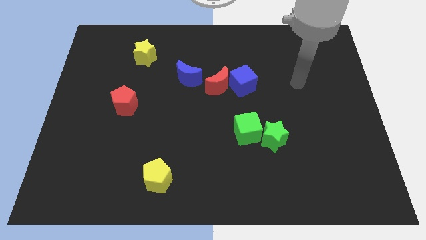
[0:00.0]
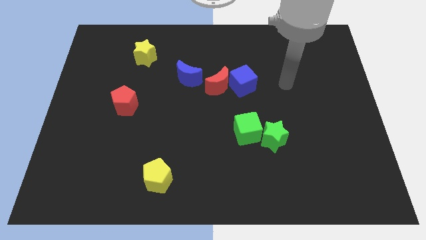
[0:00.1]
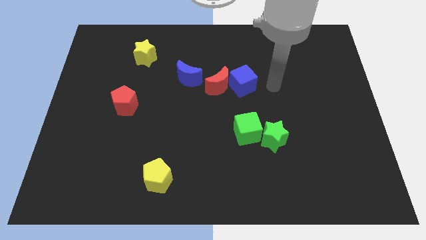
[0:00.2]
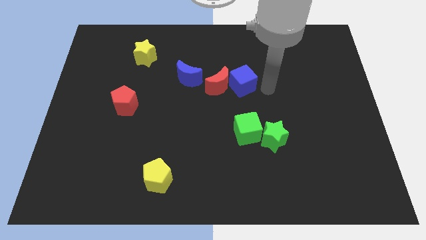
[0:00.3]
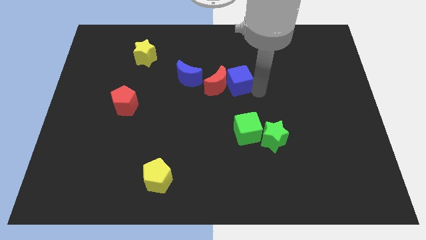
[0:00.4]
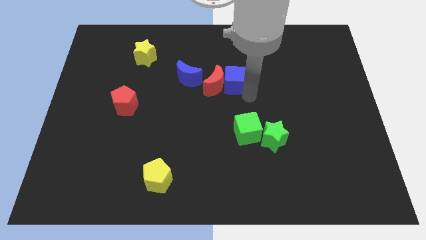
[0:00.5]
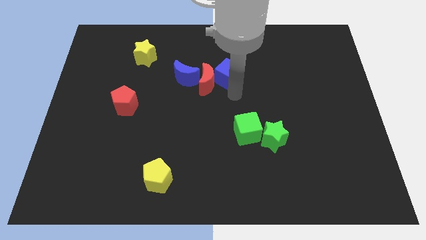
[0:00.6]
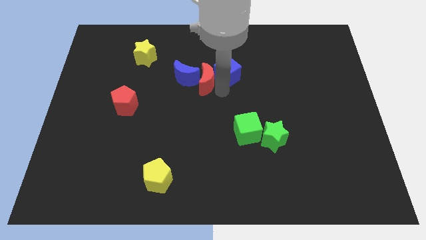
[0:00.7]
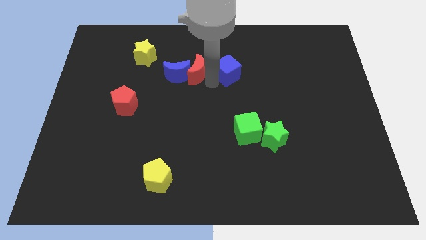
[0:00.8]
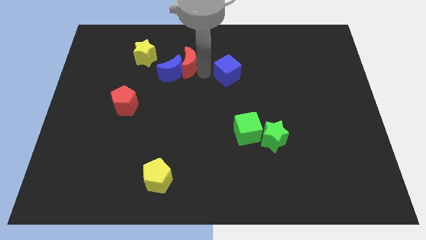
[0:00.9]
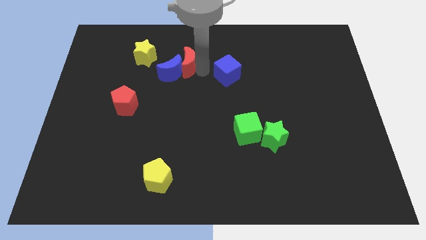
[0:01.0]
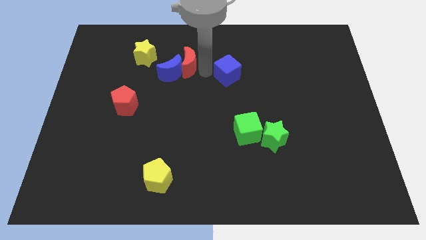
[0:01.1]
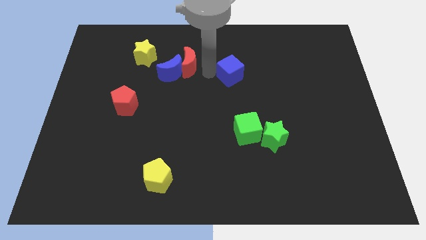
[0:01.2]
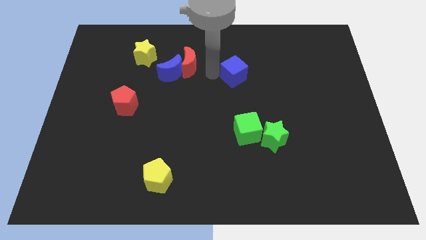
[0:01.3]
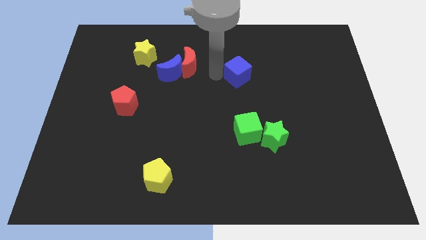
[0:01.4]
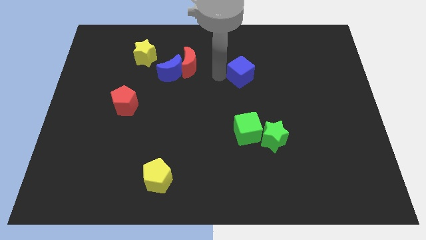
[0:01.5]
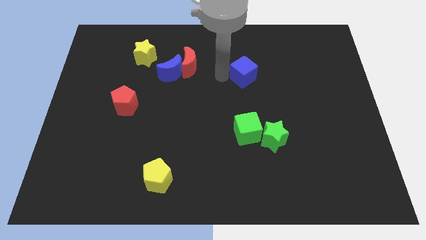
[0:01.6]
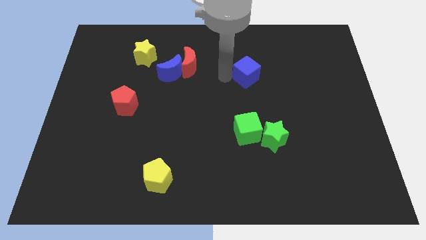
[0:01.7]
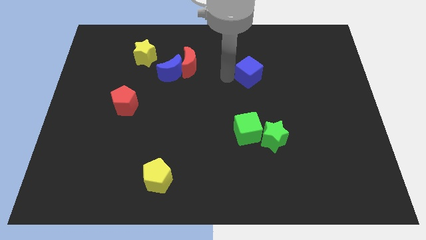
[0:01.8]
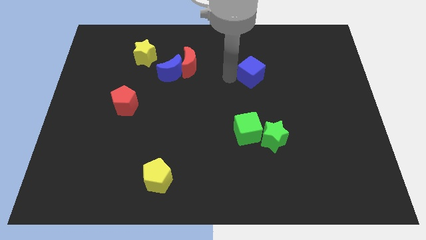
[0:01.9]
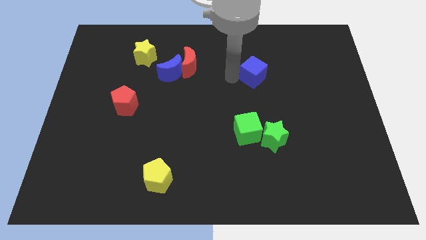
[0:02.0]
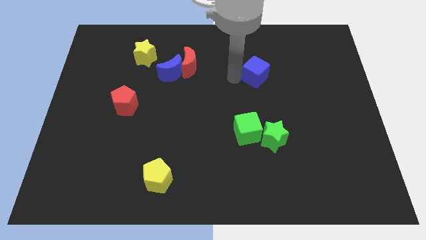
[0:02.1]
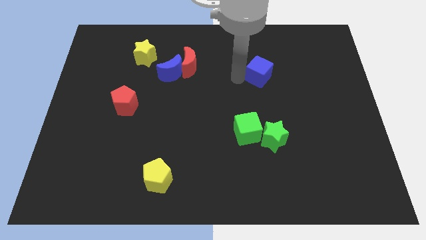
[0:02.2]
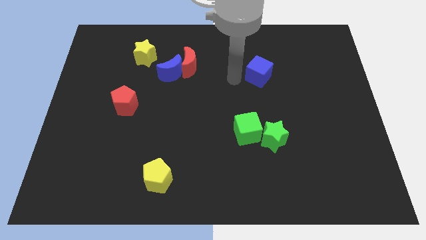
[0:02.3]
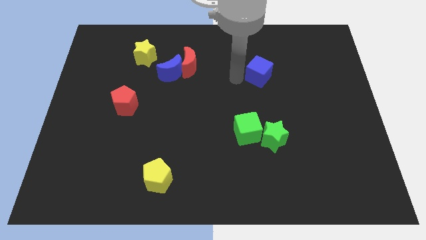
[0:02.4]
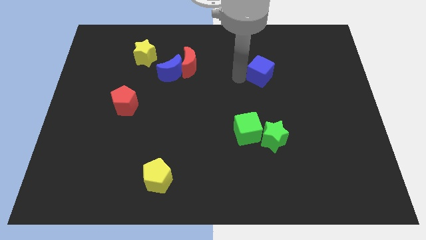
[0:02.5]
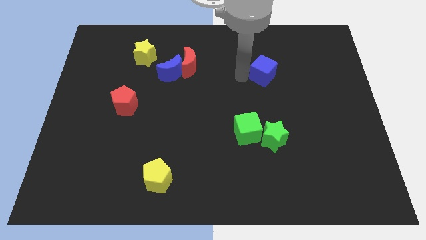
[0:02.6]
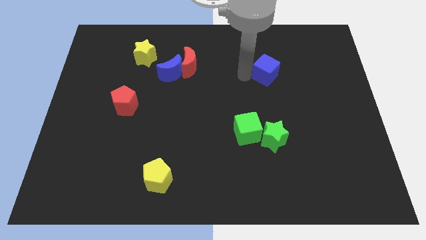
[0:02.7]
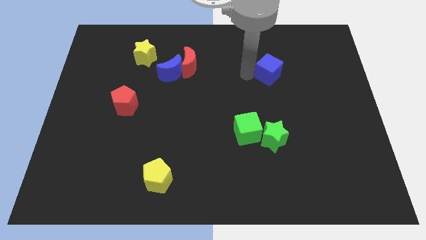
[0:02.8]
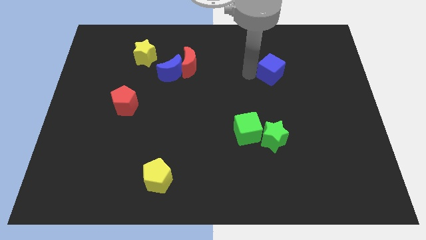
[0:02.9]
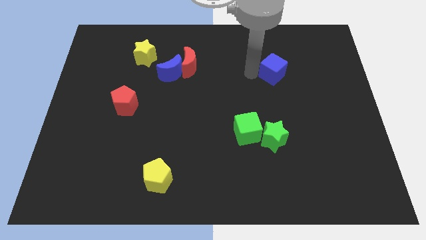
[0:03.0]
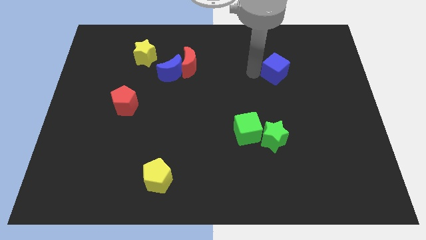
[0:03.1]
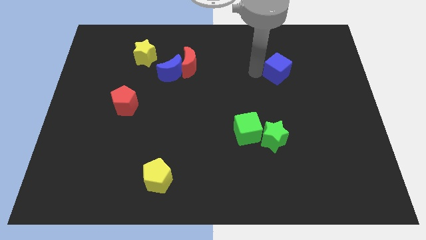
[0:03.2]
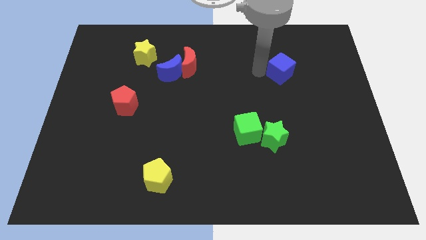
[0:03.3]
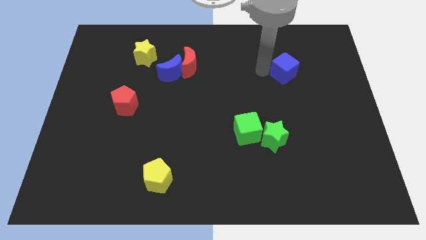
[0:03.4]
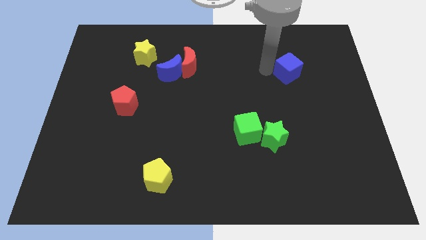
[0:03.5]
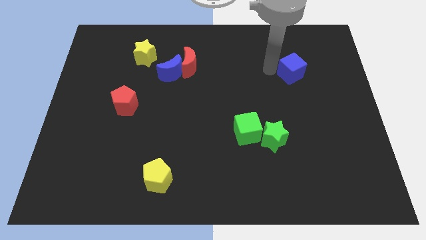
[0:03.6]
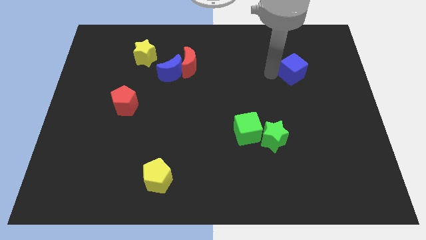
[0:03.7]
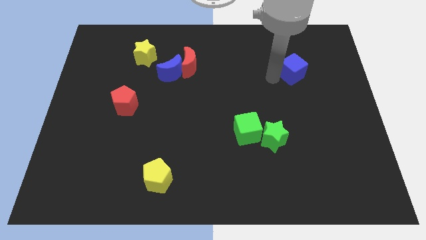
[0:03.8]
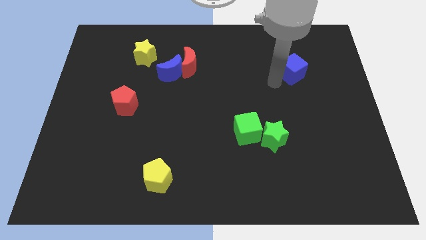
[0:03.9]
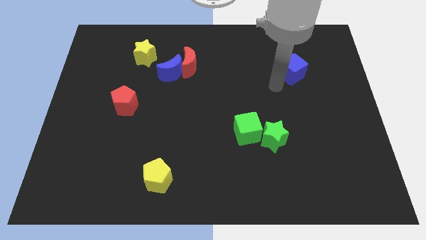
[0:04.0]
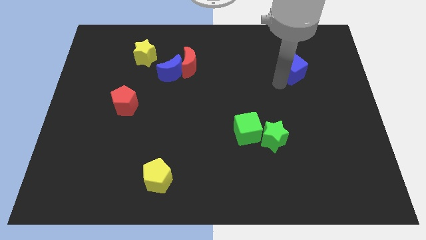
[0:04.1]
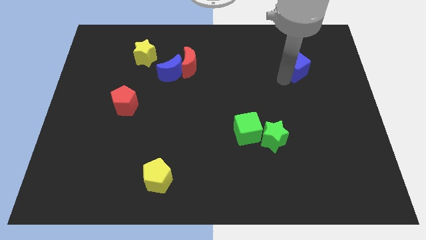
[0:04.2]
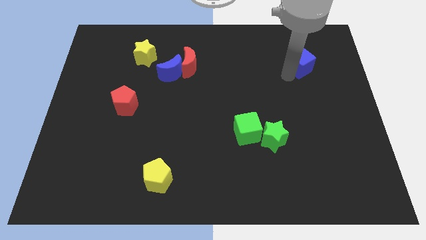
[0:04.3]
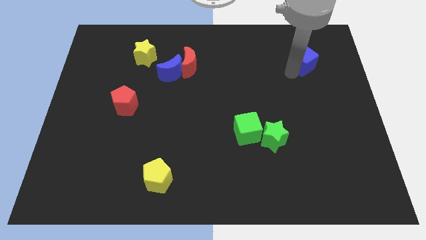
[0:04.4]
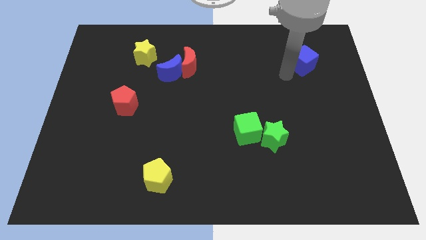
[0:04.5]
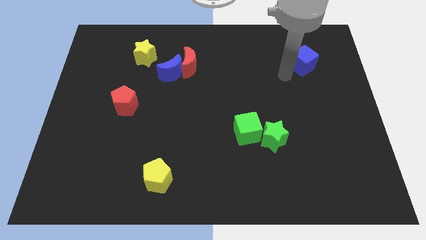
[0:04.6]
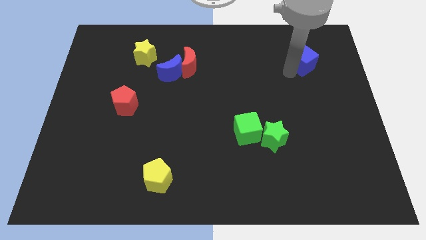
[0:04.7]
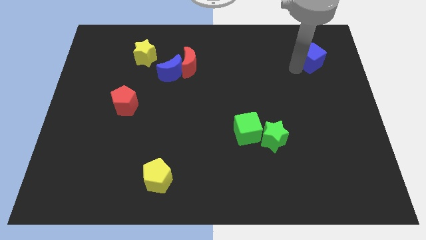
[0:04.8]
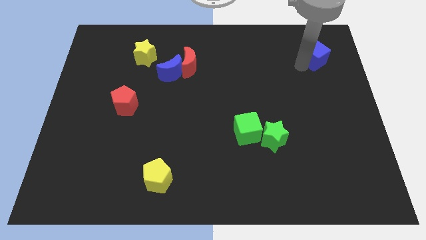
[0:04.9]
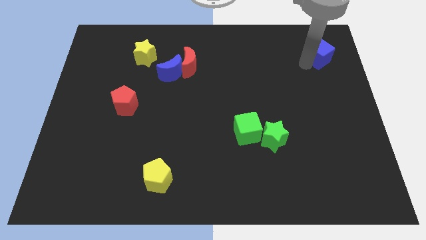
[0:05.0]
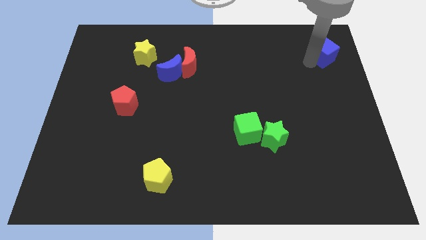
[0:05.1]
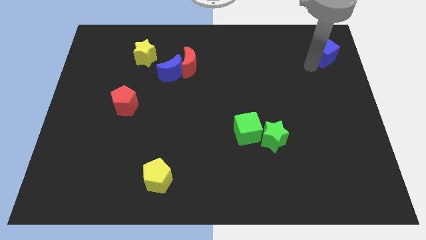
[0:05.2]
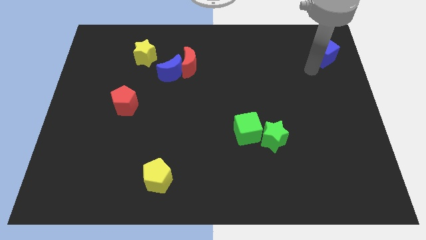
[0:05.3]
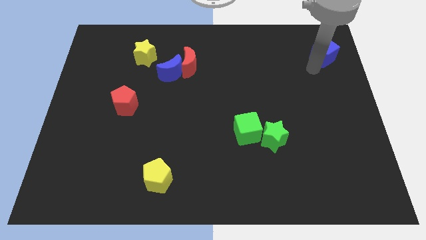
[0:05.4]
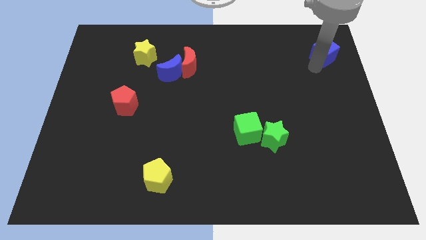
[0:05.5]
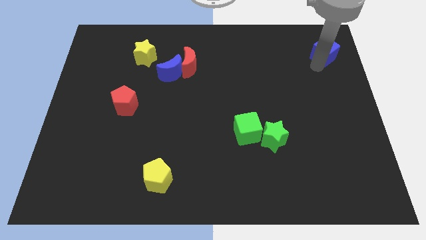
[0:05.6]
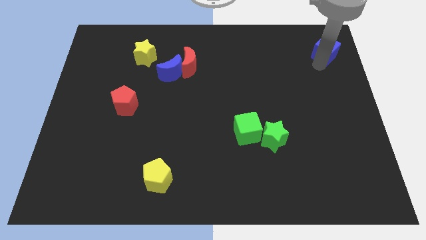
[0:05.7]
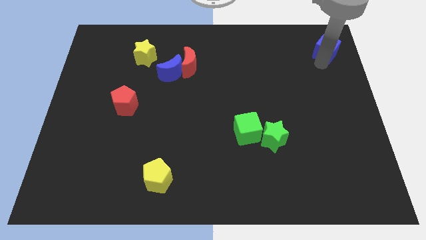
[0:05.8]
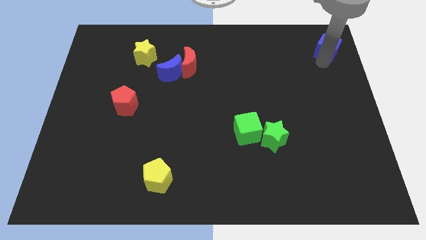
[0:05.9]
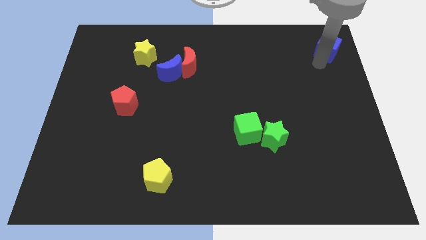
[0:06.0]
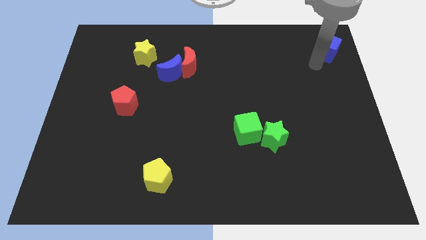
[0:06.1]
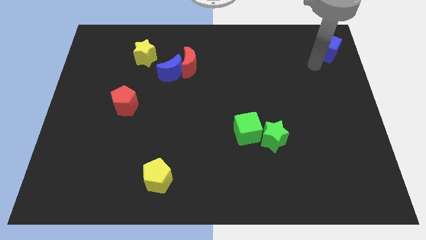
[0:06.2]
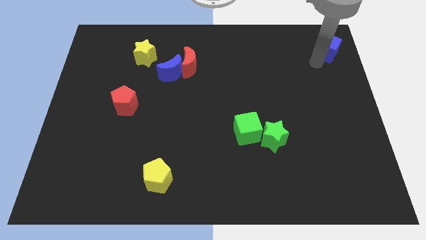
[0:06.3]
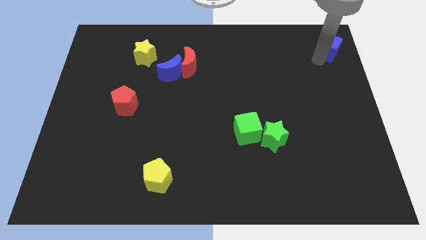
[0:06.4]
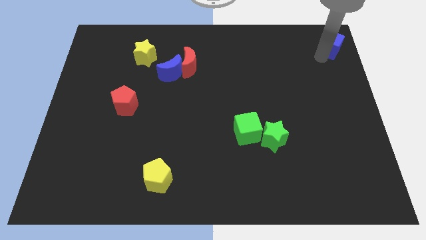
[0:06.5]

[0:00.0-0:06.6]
push the blue cube to the top right corner

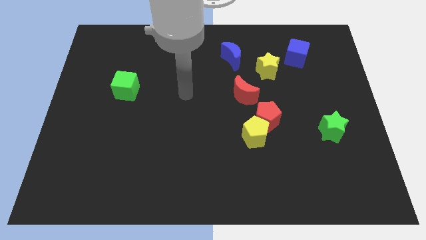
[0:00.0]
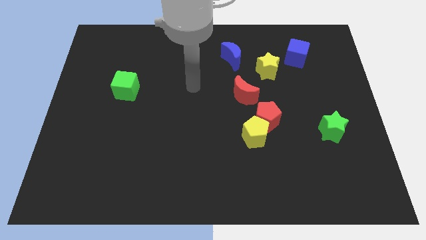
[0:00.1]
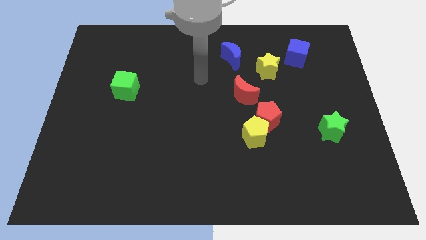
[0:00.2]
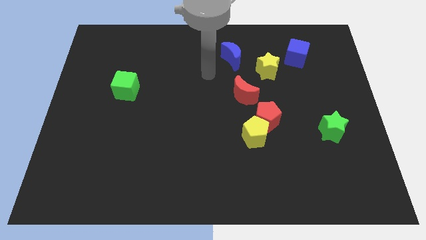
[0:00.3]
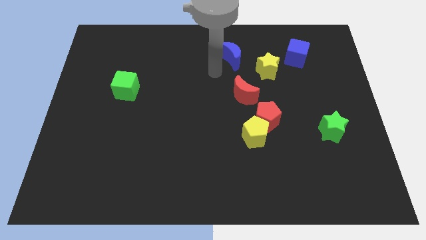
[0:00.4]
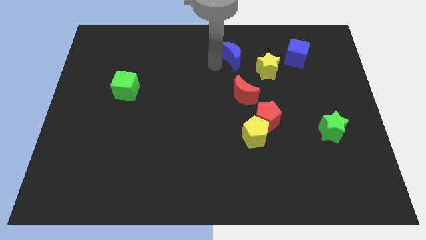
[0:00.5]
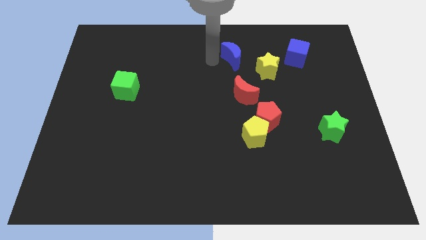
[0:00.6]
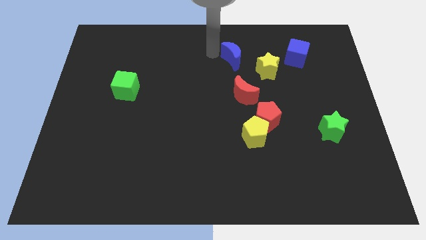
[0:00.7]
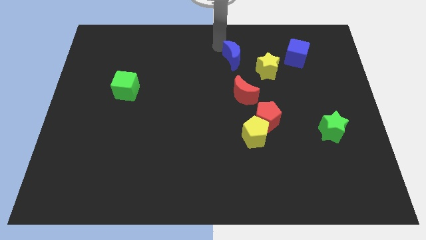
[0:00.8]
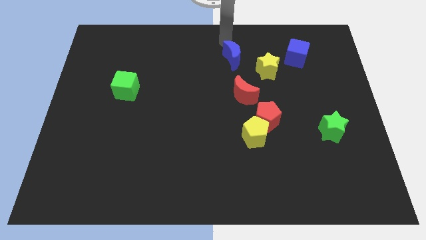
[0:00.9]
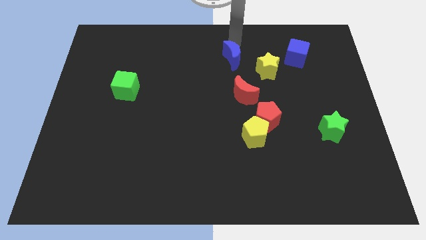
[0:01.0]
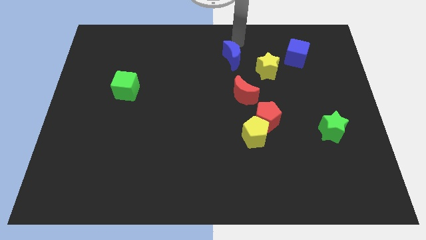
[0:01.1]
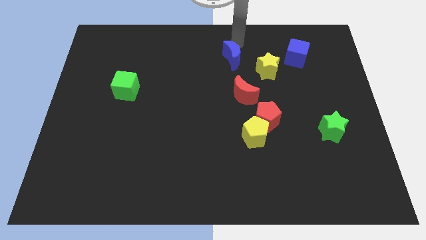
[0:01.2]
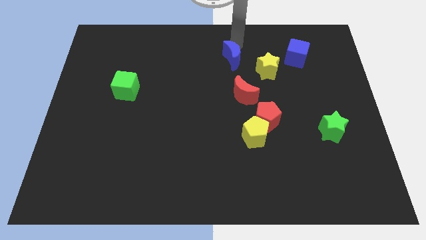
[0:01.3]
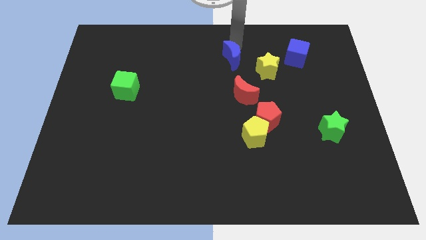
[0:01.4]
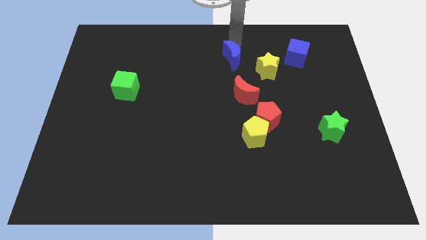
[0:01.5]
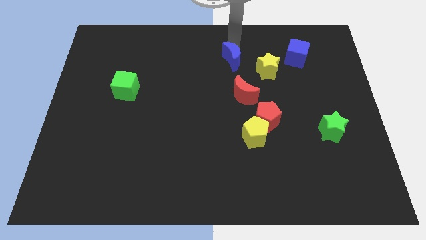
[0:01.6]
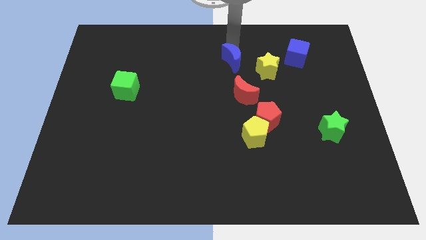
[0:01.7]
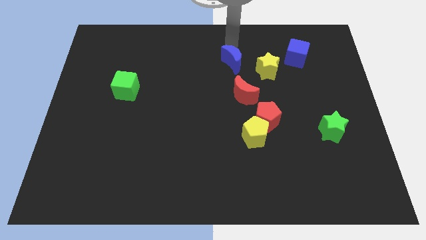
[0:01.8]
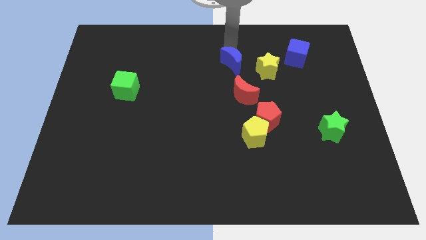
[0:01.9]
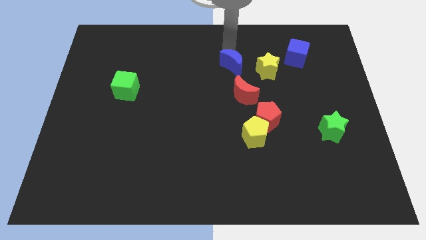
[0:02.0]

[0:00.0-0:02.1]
move the blue moon to the middle of the board
